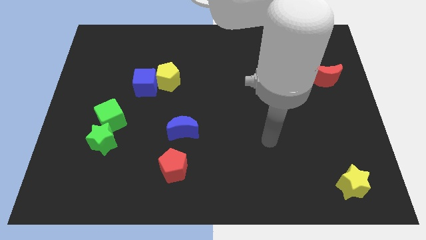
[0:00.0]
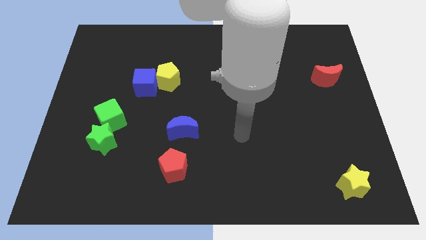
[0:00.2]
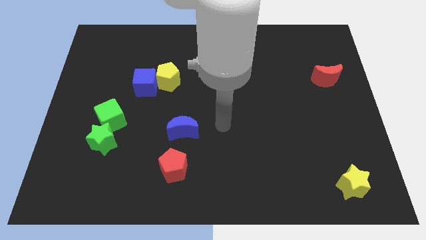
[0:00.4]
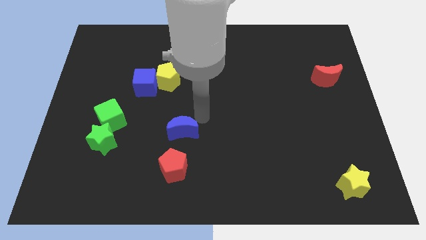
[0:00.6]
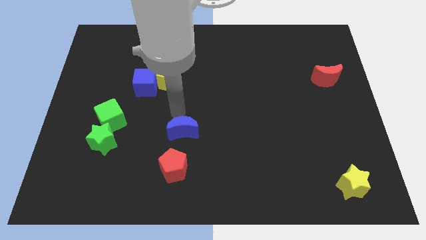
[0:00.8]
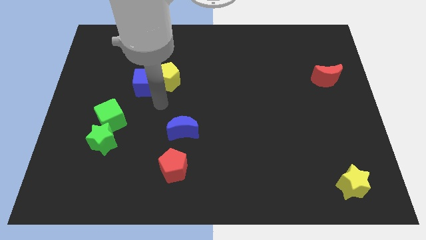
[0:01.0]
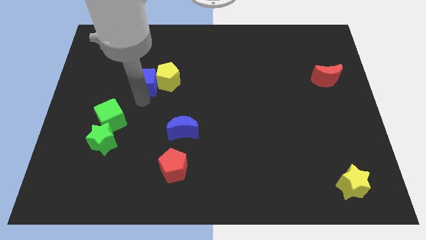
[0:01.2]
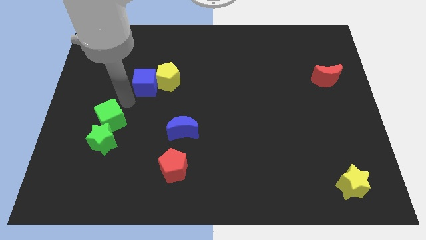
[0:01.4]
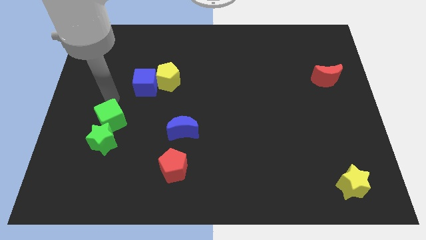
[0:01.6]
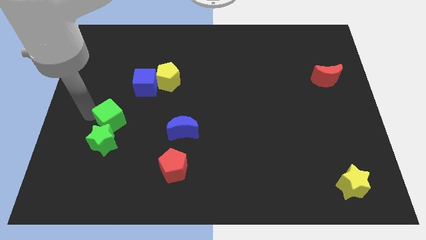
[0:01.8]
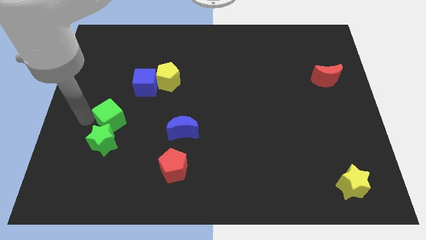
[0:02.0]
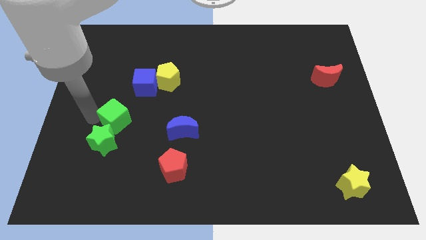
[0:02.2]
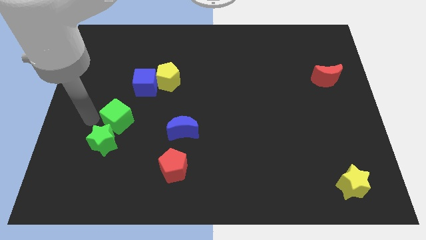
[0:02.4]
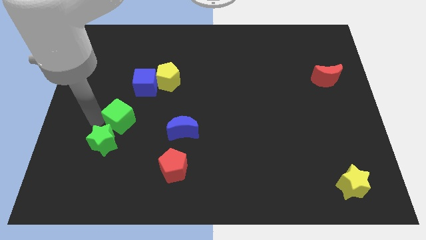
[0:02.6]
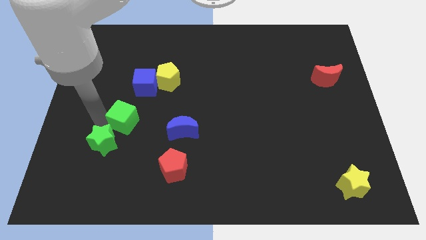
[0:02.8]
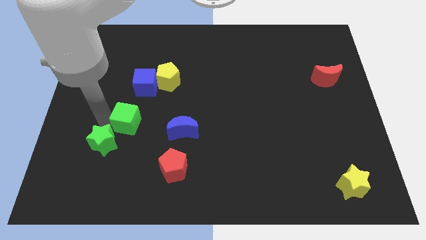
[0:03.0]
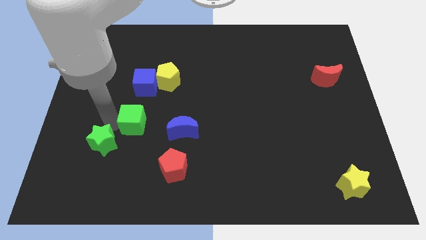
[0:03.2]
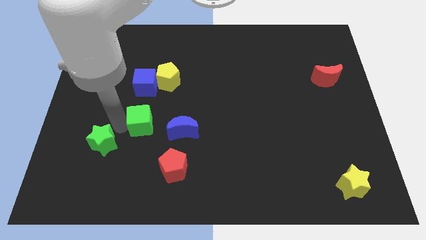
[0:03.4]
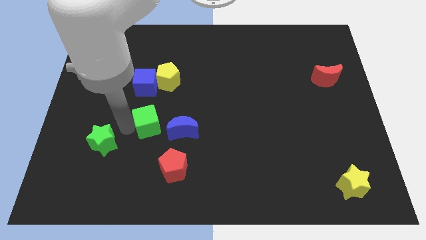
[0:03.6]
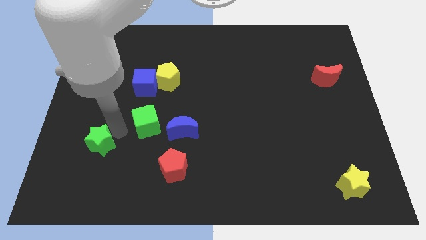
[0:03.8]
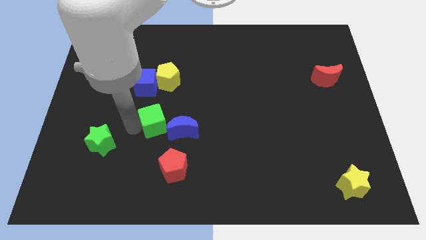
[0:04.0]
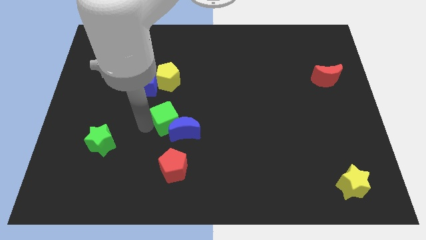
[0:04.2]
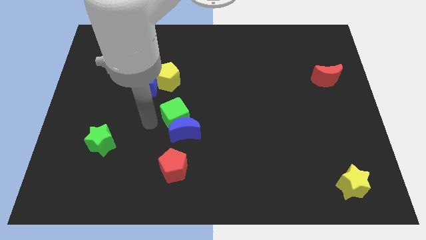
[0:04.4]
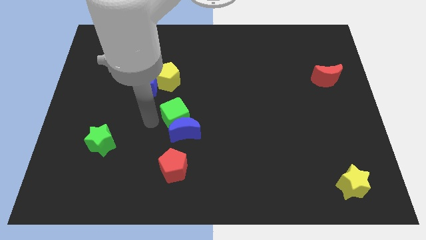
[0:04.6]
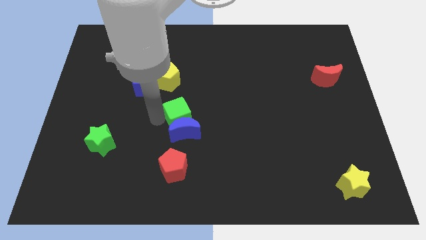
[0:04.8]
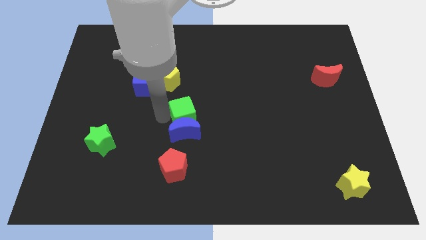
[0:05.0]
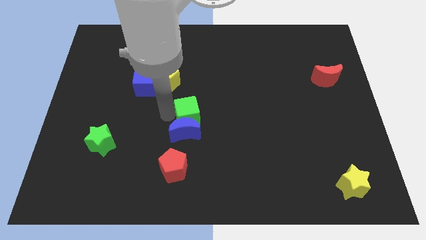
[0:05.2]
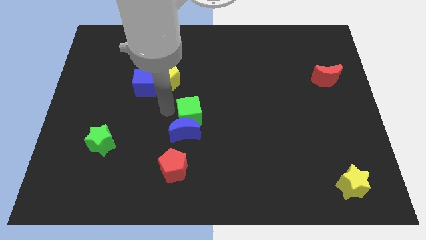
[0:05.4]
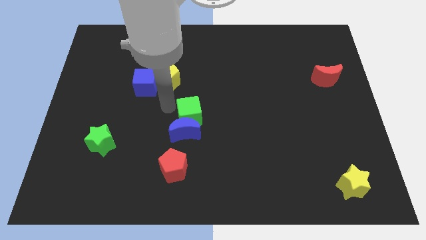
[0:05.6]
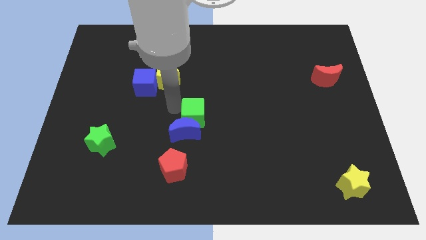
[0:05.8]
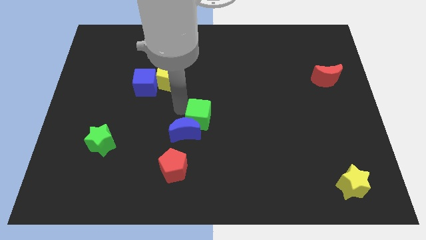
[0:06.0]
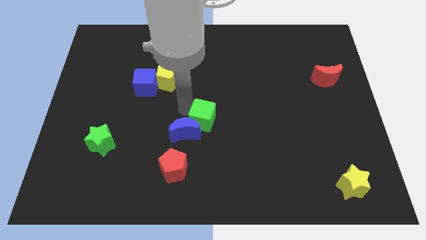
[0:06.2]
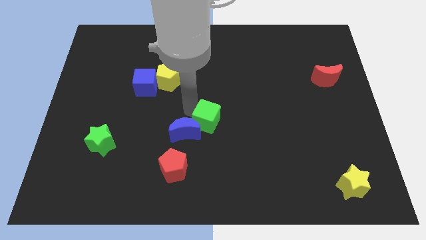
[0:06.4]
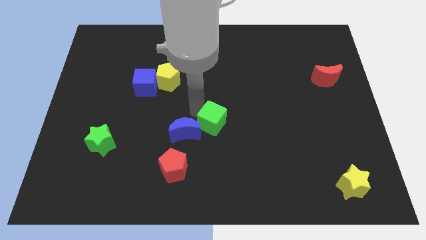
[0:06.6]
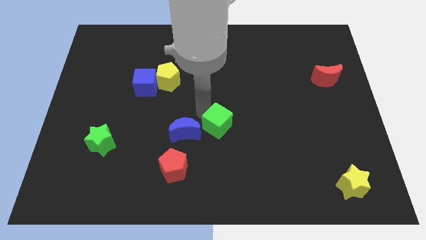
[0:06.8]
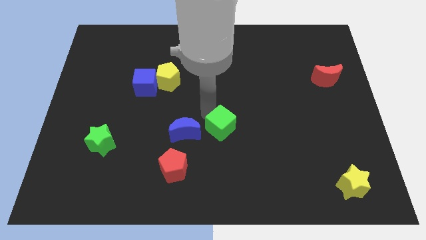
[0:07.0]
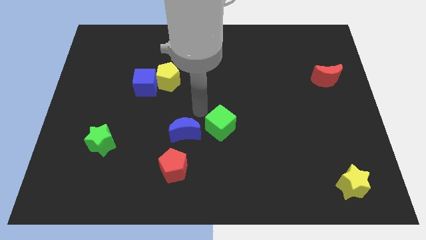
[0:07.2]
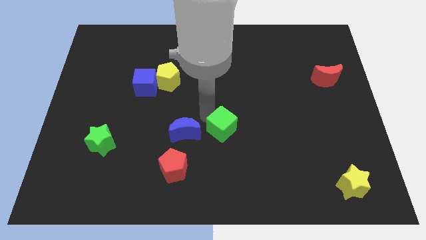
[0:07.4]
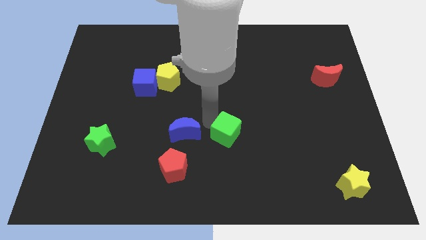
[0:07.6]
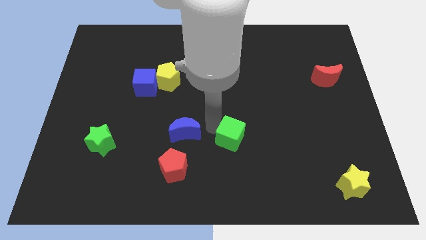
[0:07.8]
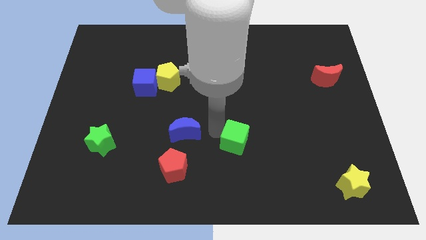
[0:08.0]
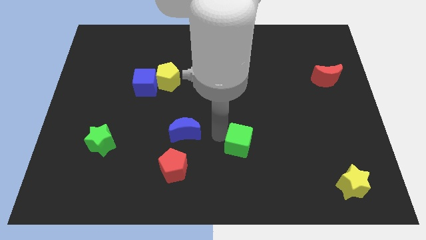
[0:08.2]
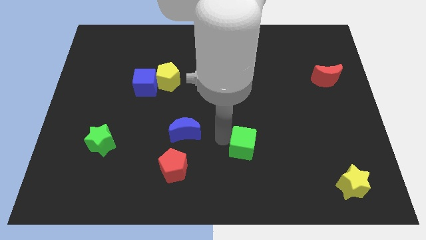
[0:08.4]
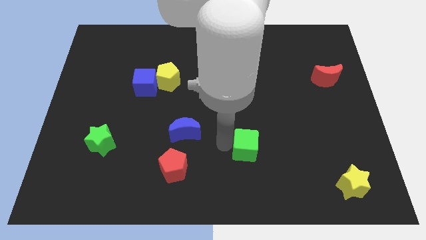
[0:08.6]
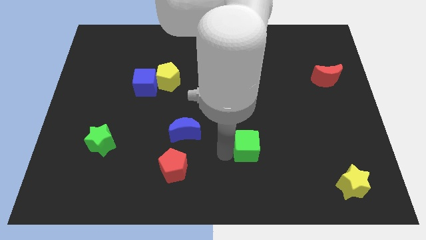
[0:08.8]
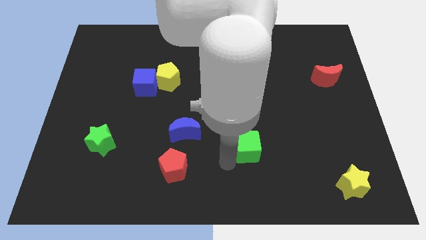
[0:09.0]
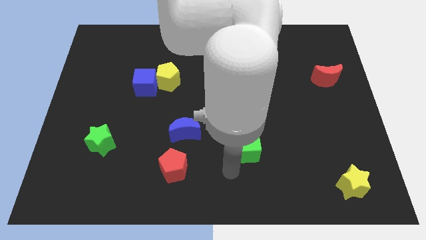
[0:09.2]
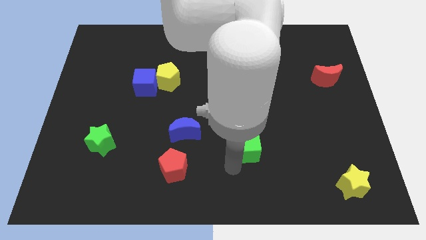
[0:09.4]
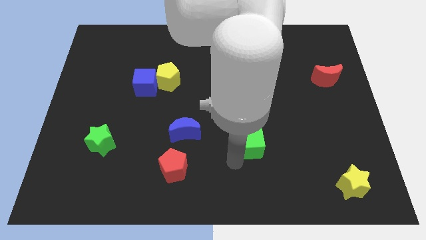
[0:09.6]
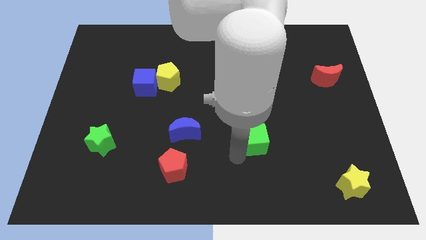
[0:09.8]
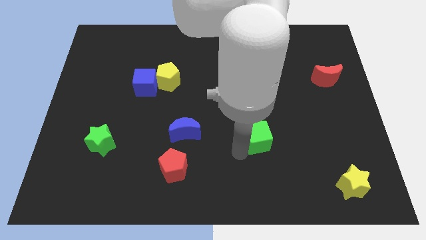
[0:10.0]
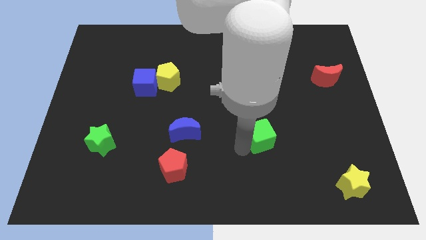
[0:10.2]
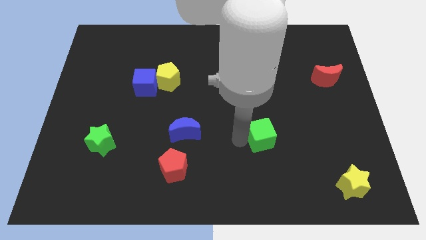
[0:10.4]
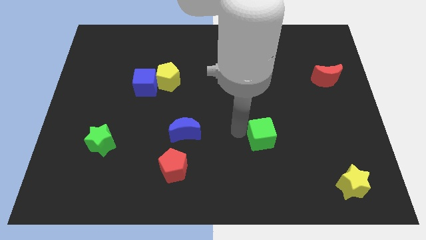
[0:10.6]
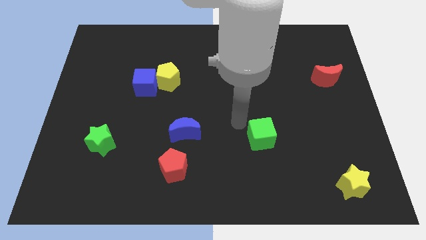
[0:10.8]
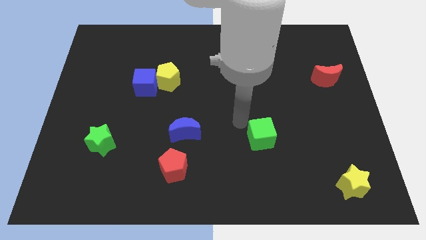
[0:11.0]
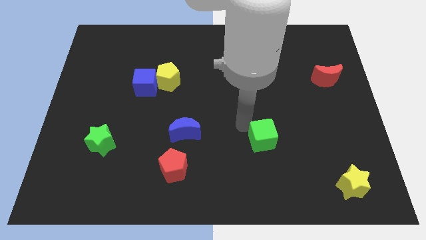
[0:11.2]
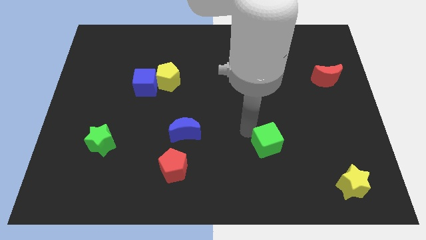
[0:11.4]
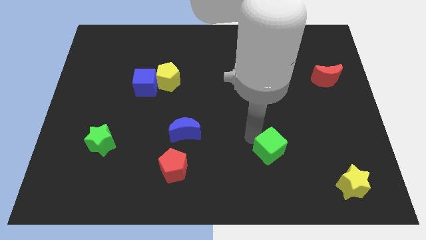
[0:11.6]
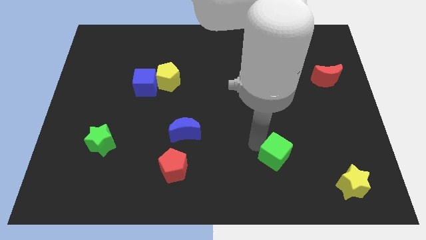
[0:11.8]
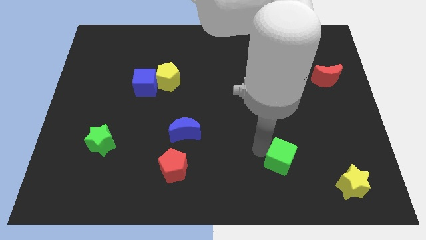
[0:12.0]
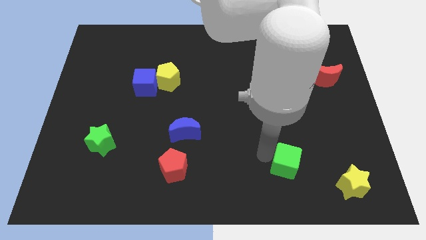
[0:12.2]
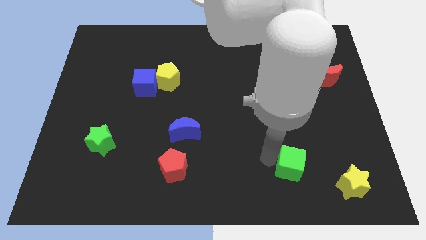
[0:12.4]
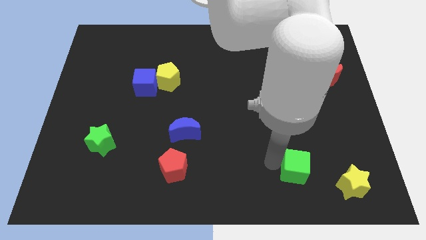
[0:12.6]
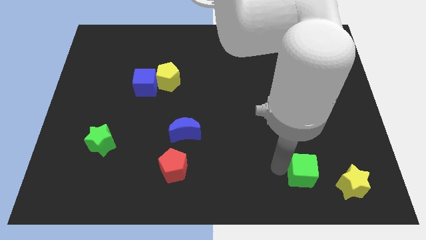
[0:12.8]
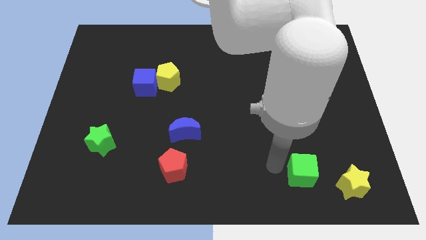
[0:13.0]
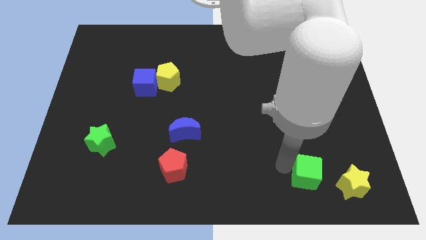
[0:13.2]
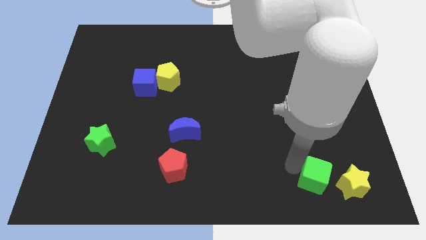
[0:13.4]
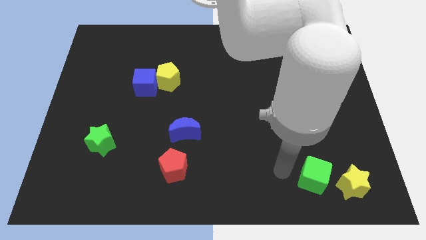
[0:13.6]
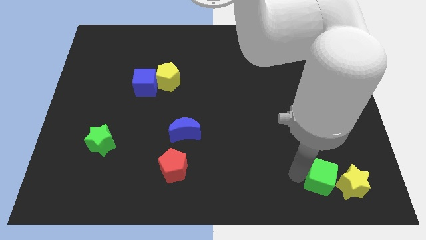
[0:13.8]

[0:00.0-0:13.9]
move the green cube next to the yellow star
